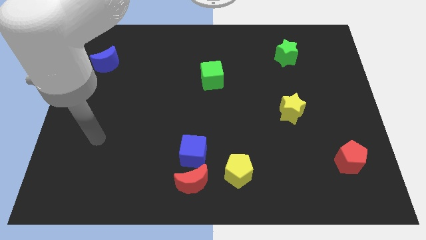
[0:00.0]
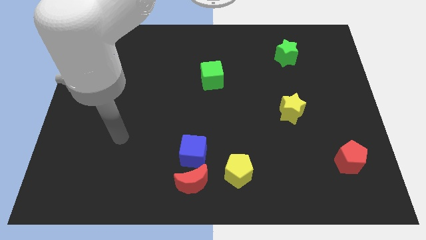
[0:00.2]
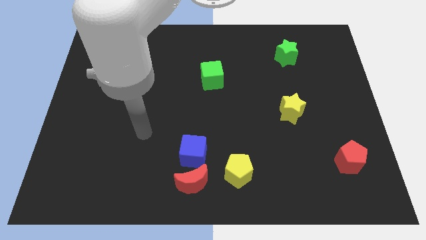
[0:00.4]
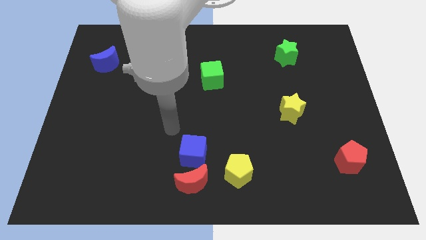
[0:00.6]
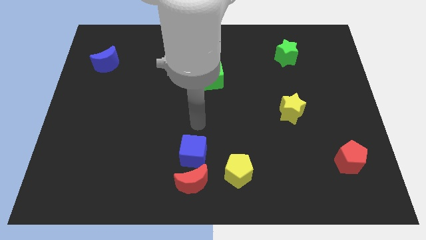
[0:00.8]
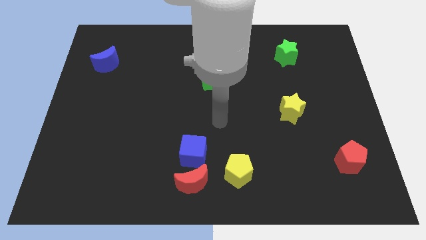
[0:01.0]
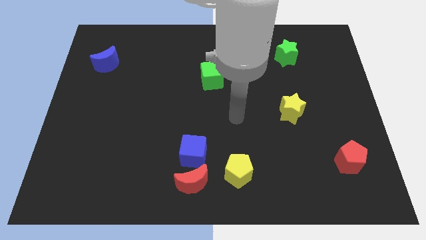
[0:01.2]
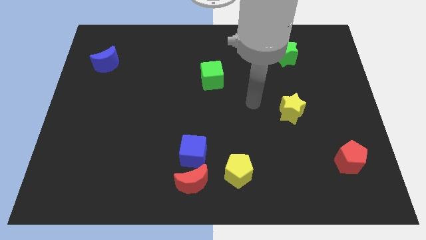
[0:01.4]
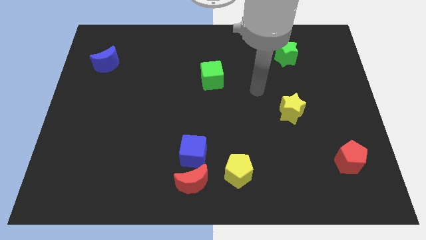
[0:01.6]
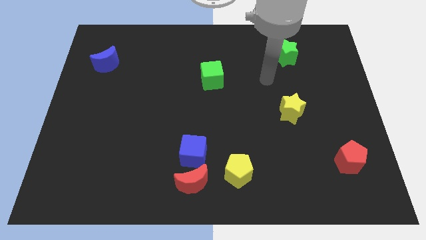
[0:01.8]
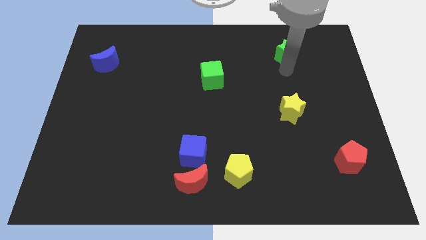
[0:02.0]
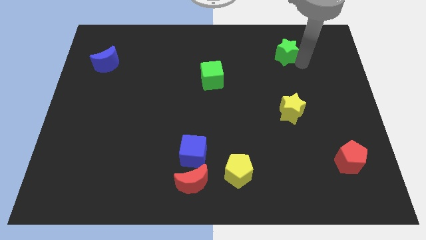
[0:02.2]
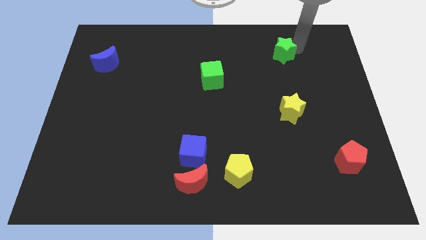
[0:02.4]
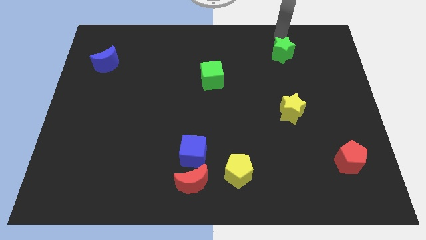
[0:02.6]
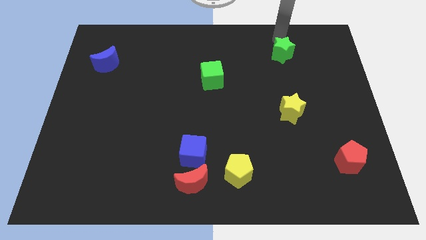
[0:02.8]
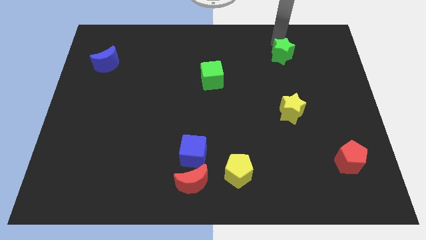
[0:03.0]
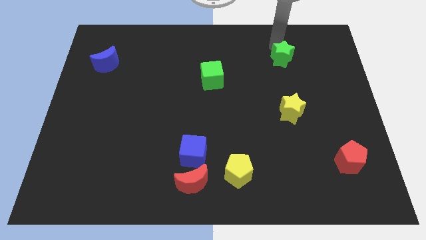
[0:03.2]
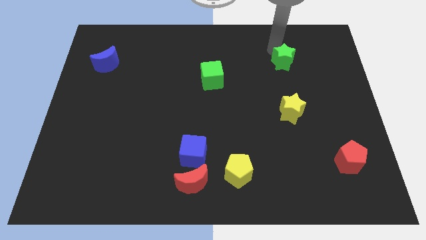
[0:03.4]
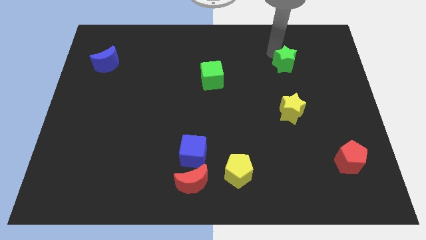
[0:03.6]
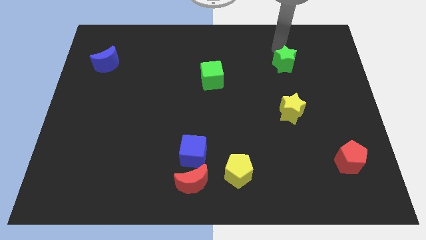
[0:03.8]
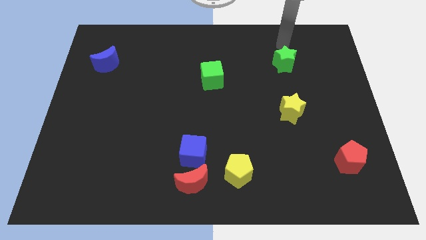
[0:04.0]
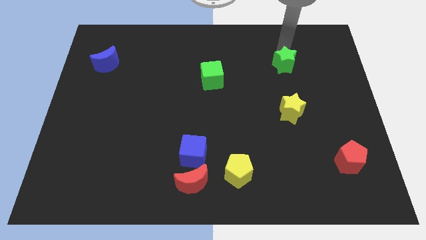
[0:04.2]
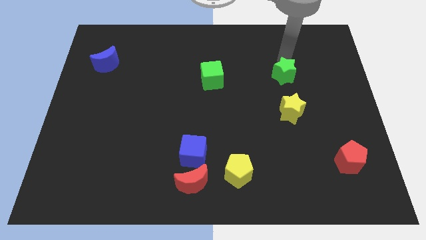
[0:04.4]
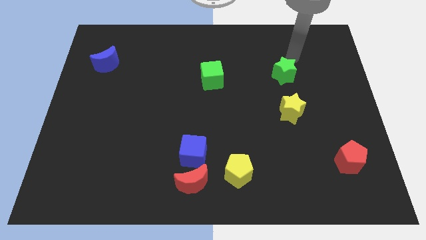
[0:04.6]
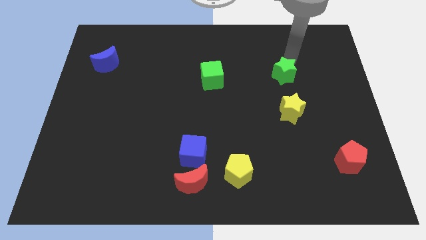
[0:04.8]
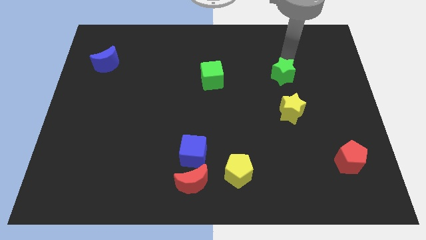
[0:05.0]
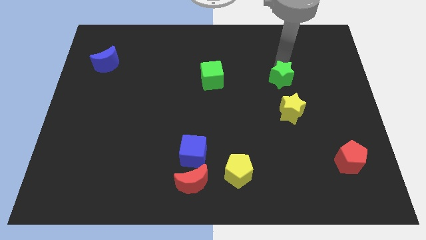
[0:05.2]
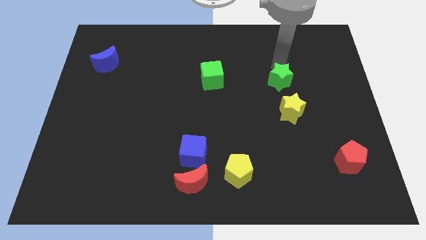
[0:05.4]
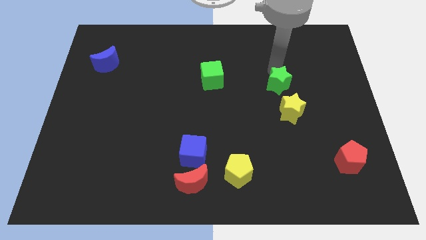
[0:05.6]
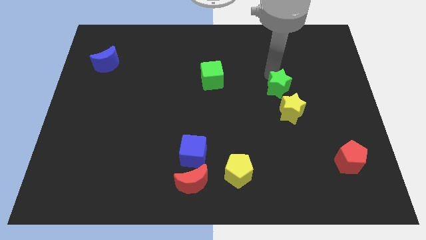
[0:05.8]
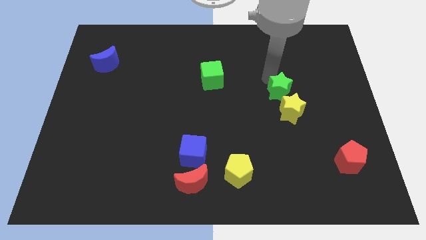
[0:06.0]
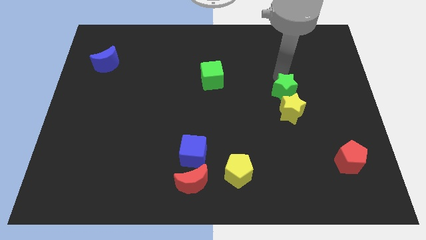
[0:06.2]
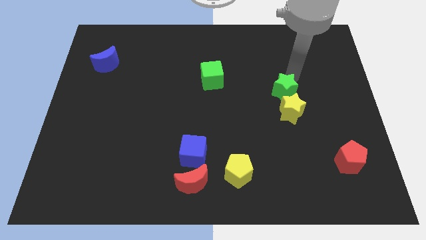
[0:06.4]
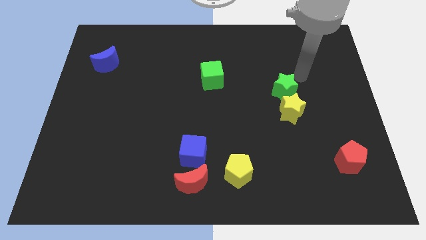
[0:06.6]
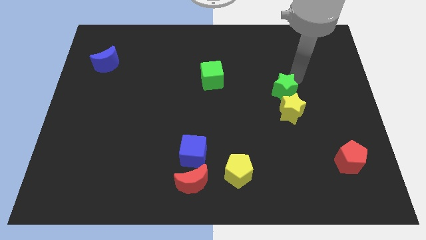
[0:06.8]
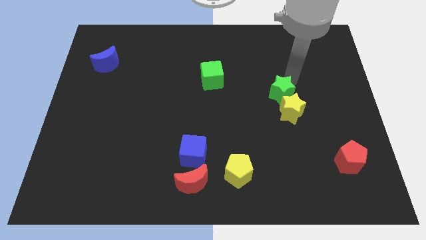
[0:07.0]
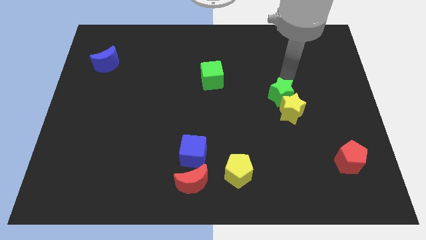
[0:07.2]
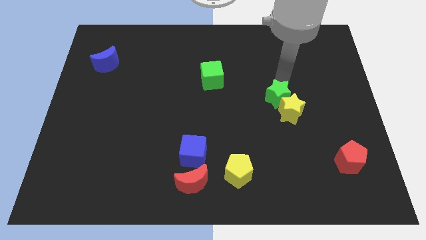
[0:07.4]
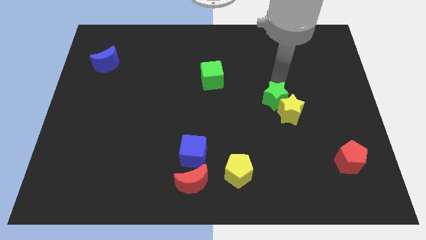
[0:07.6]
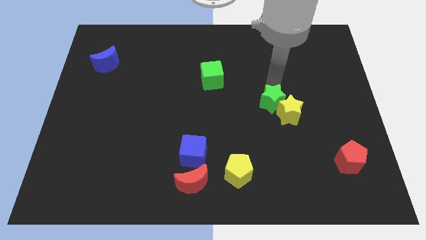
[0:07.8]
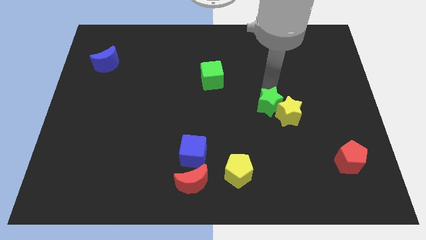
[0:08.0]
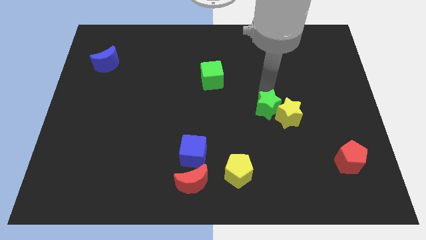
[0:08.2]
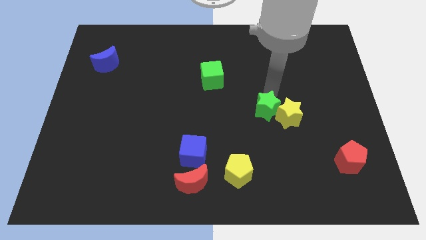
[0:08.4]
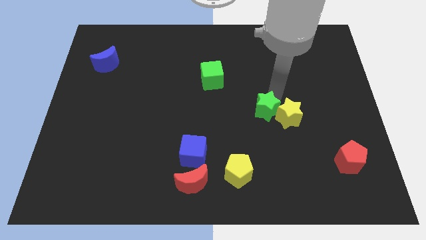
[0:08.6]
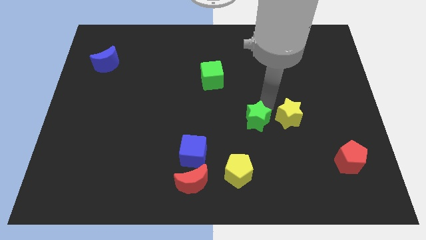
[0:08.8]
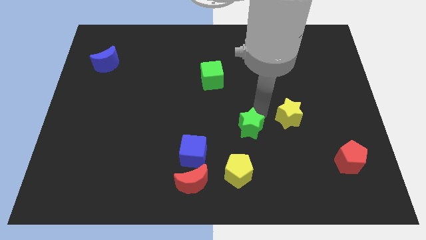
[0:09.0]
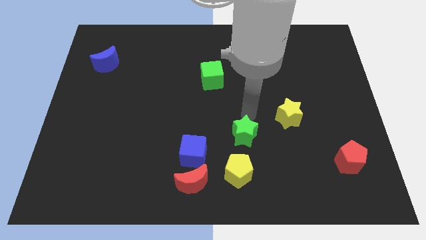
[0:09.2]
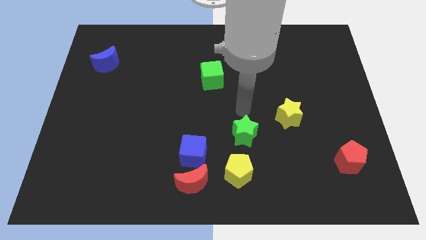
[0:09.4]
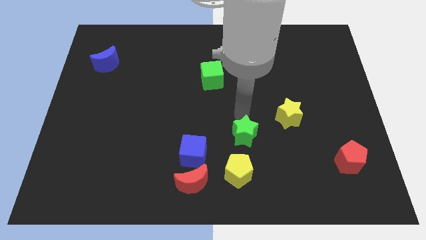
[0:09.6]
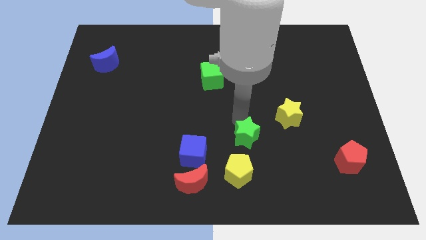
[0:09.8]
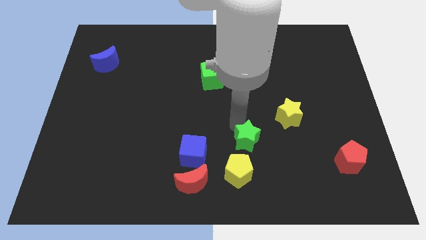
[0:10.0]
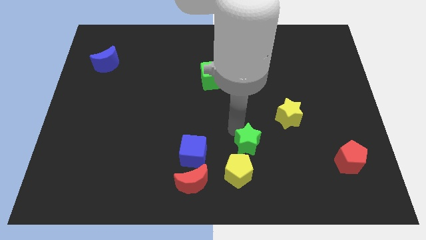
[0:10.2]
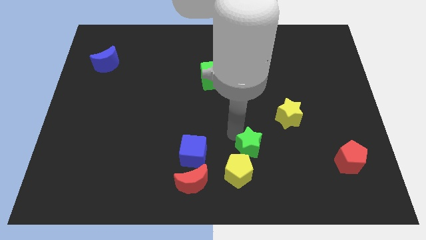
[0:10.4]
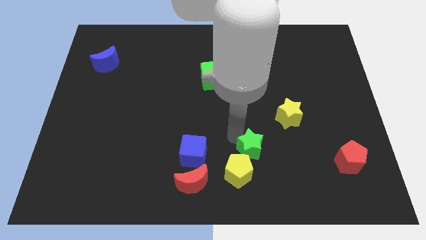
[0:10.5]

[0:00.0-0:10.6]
push the green star next to the yellow pentagon

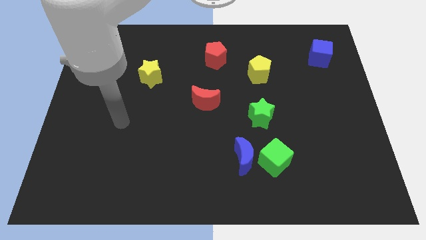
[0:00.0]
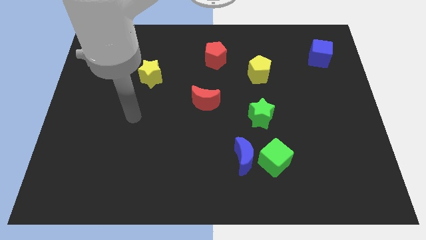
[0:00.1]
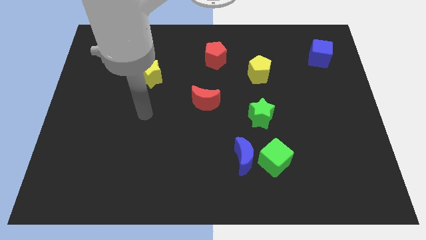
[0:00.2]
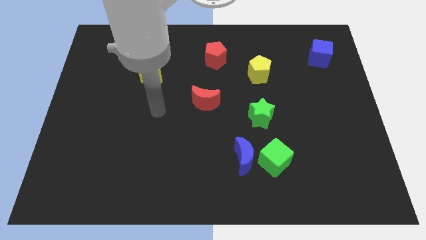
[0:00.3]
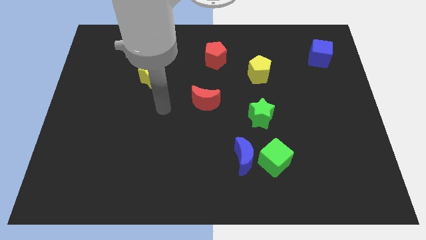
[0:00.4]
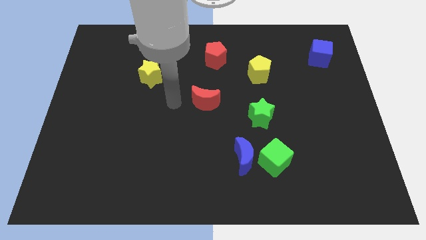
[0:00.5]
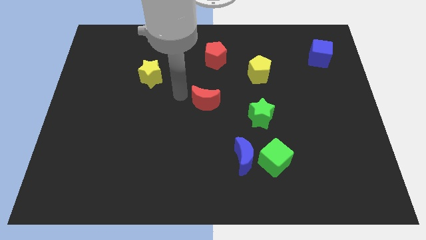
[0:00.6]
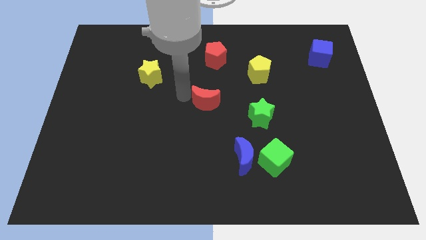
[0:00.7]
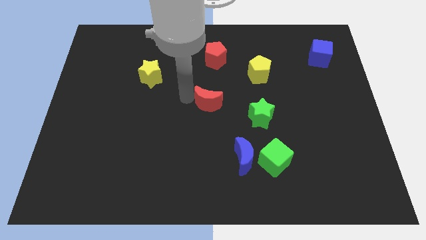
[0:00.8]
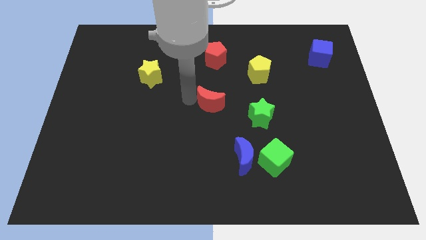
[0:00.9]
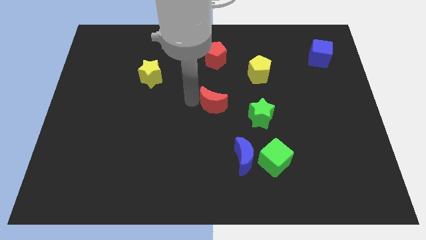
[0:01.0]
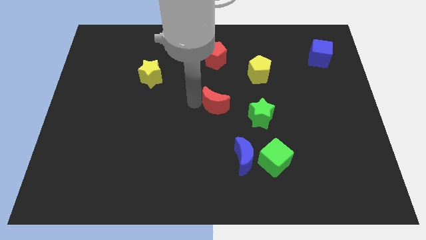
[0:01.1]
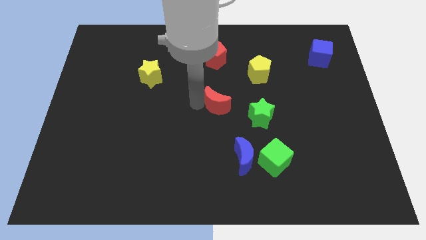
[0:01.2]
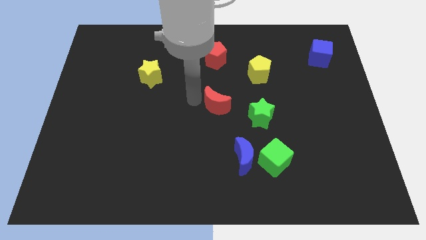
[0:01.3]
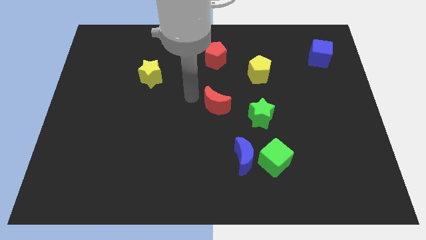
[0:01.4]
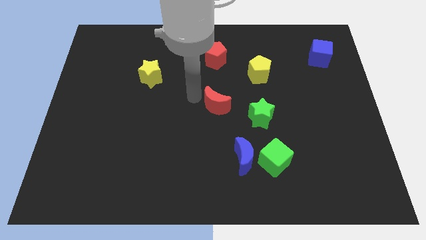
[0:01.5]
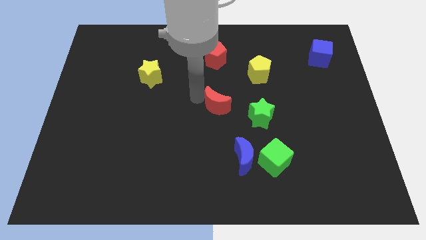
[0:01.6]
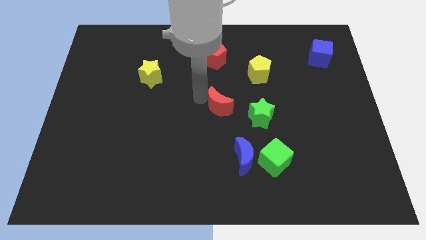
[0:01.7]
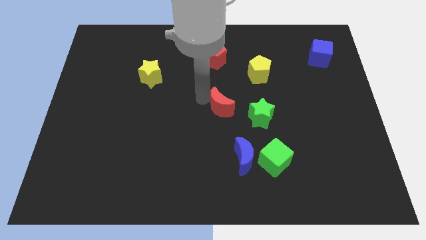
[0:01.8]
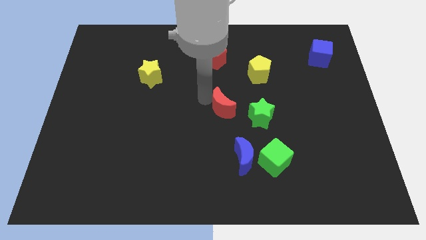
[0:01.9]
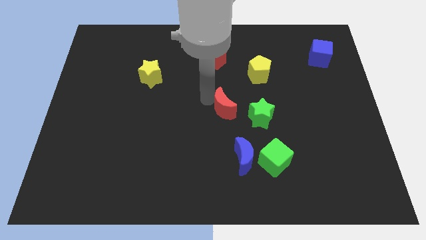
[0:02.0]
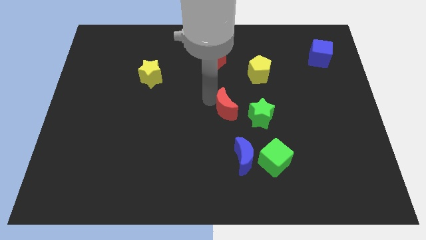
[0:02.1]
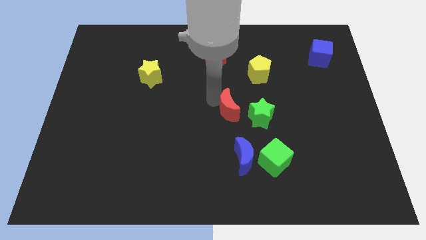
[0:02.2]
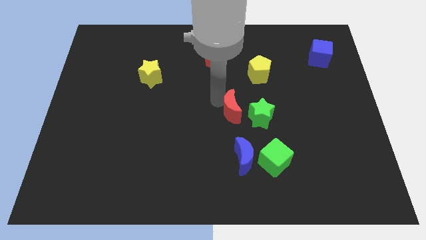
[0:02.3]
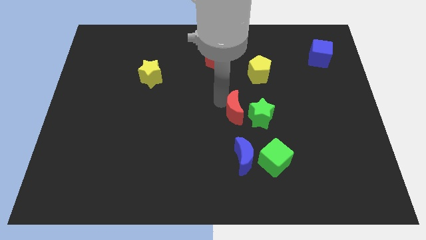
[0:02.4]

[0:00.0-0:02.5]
move the red moon to the green star

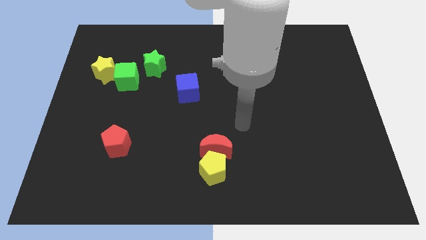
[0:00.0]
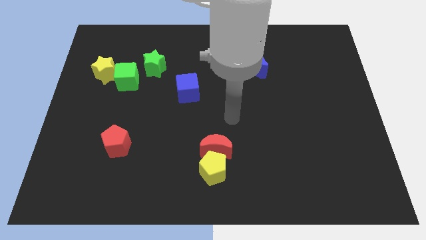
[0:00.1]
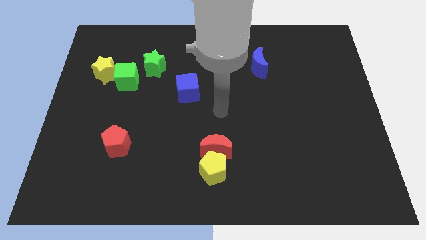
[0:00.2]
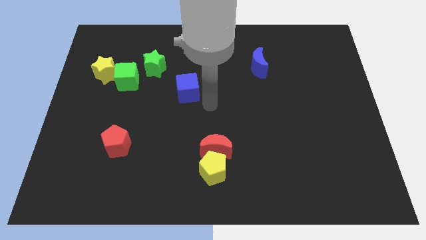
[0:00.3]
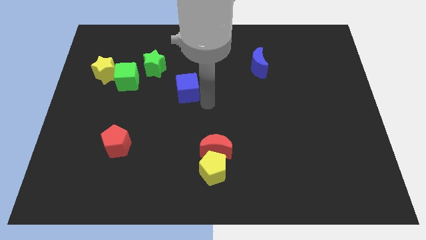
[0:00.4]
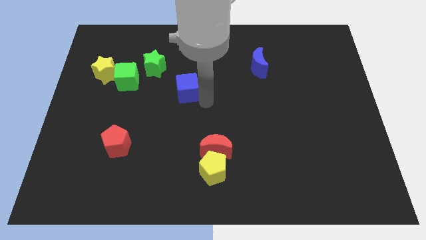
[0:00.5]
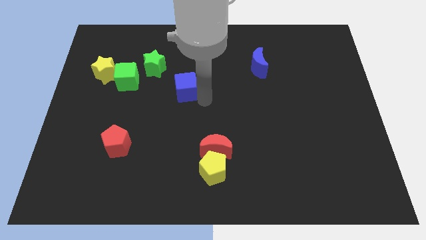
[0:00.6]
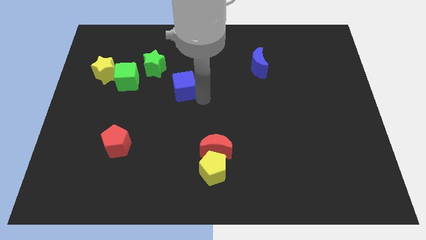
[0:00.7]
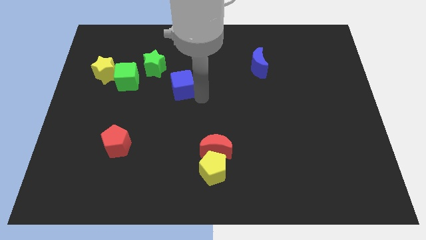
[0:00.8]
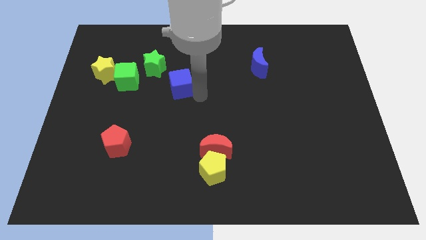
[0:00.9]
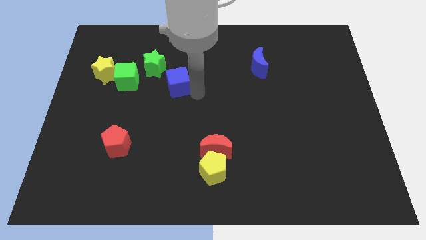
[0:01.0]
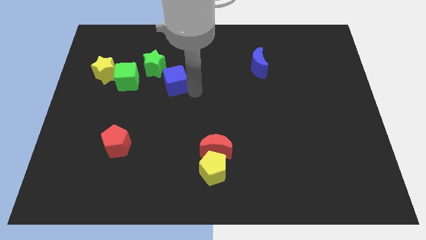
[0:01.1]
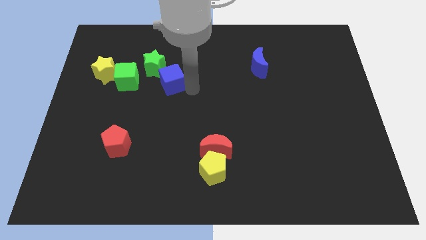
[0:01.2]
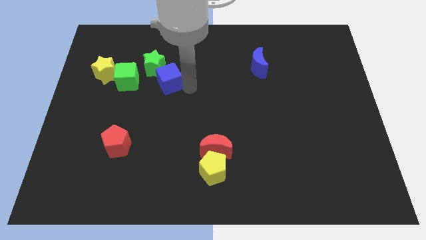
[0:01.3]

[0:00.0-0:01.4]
move the blue cube next to the green star
